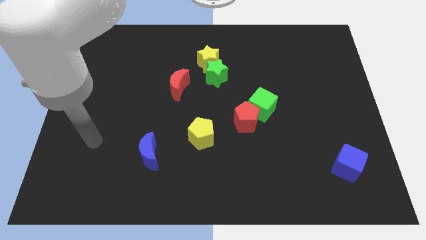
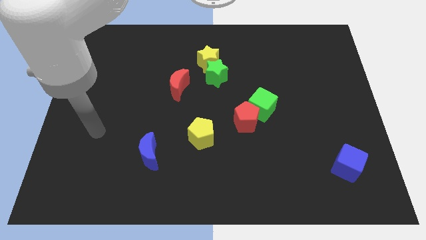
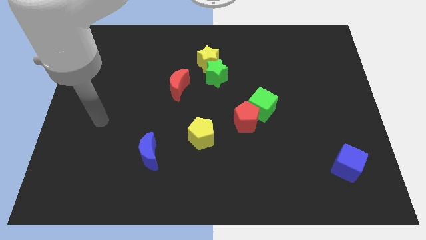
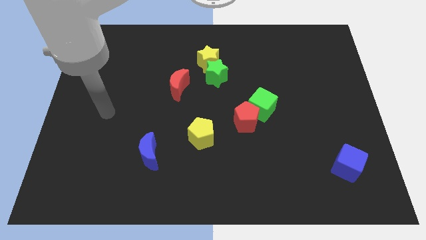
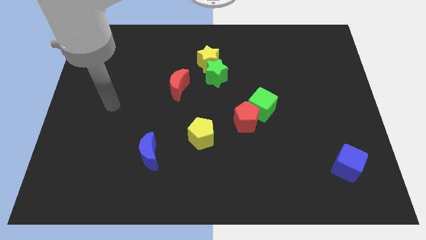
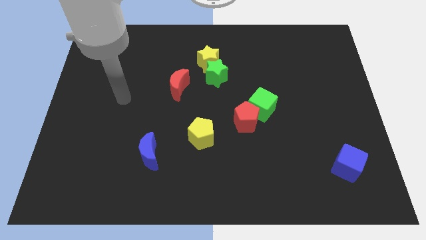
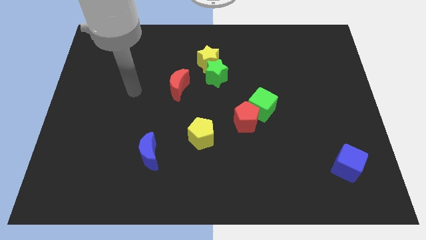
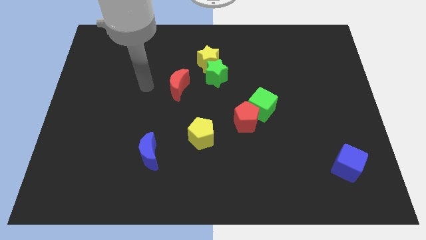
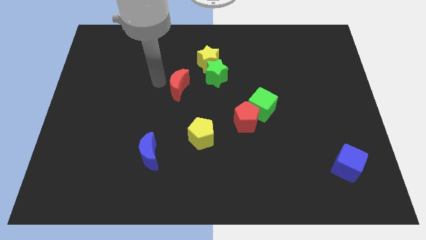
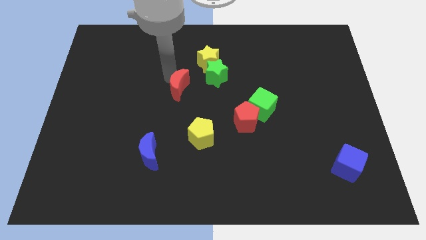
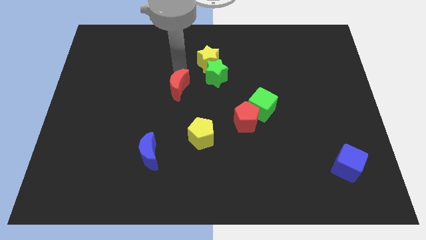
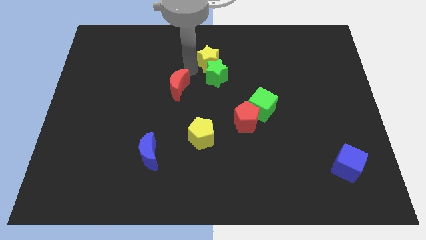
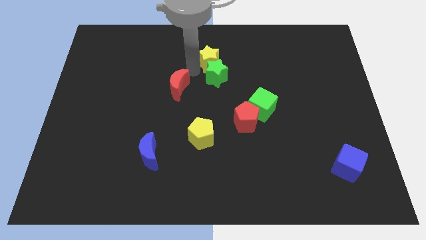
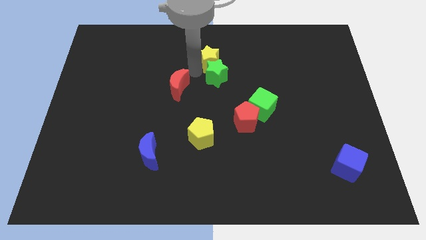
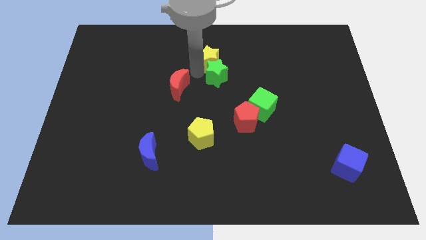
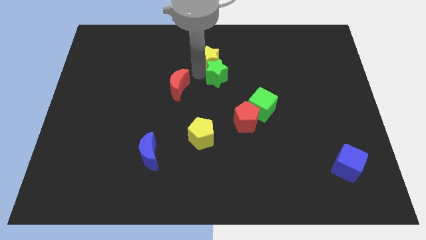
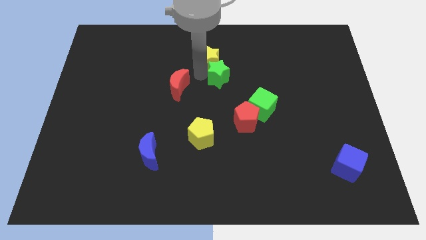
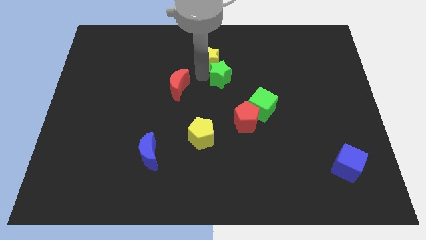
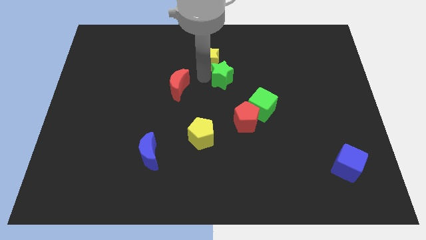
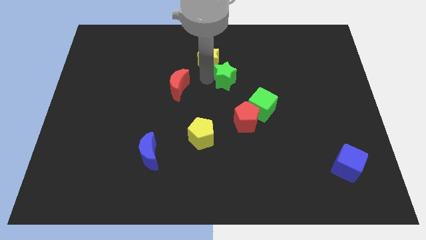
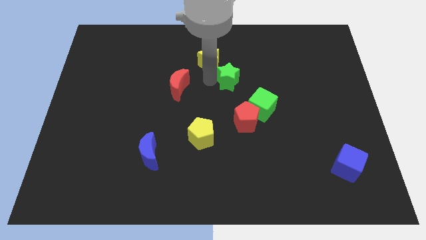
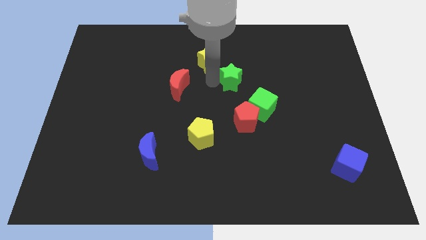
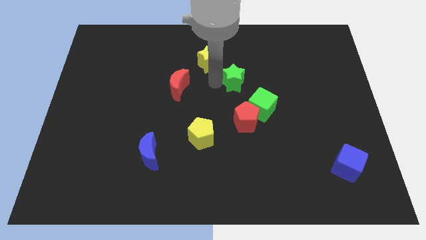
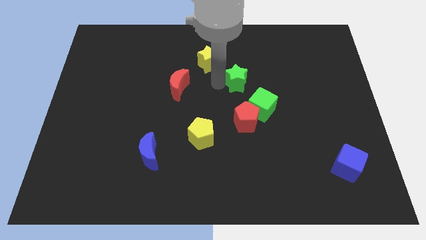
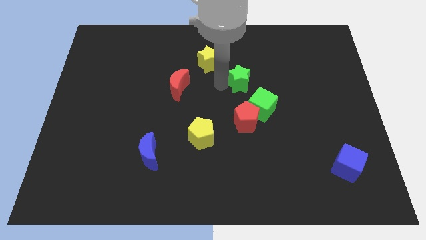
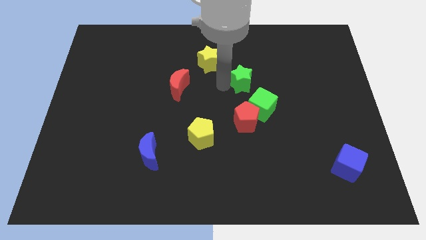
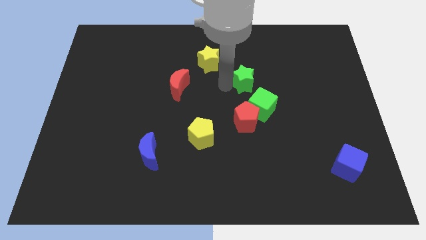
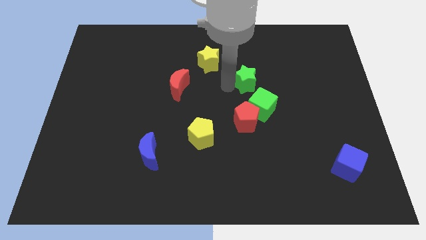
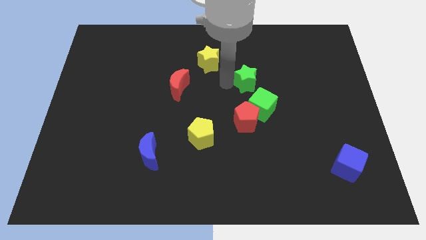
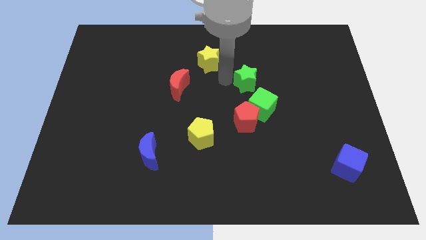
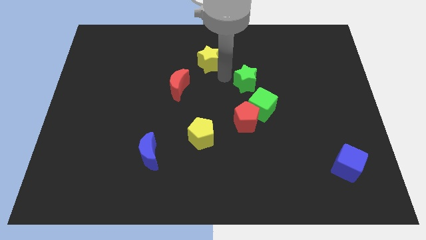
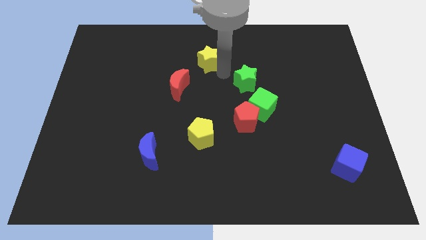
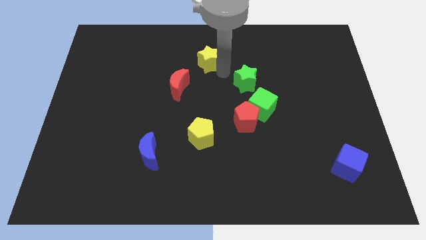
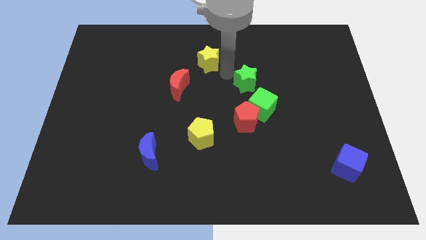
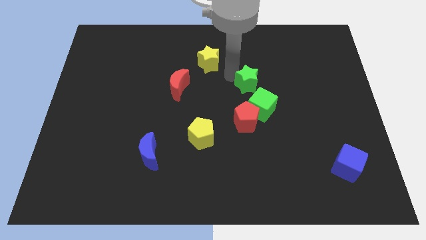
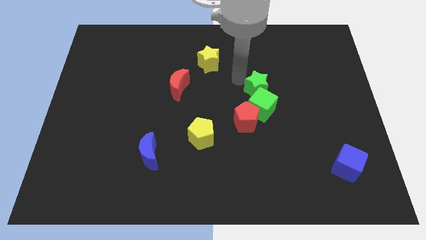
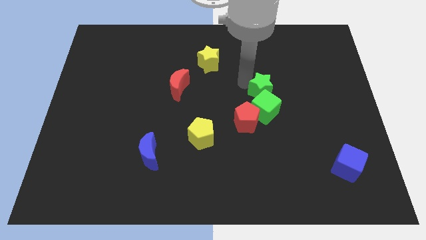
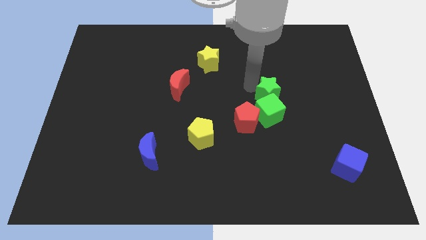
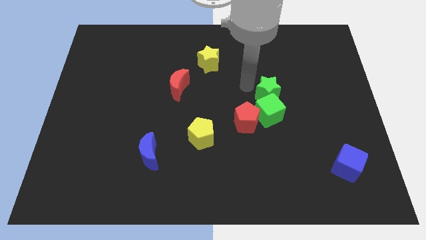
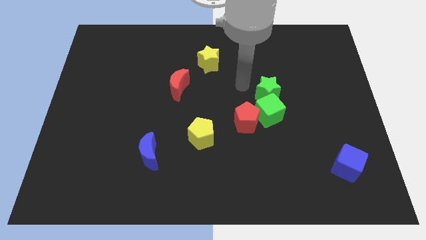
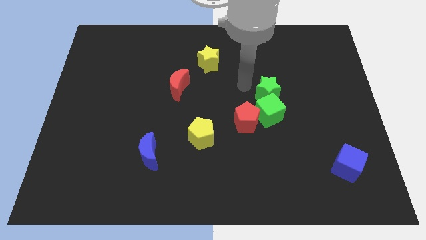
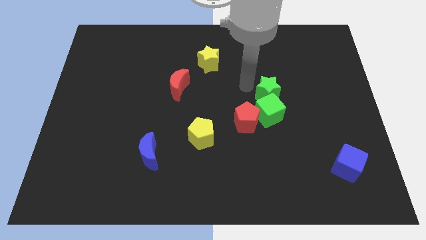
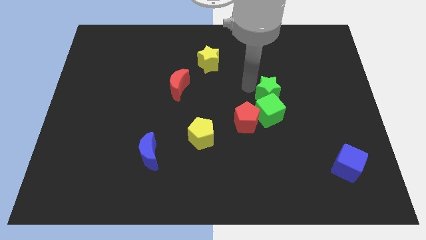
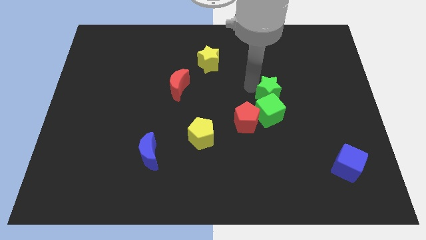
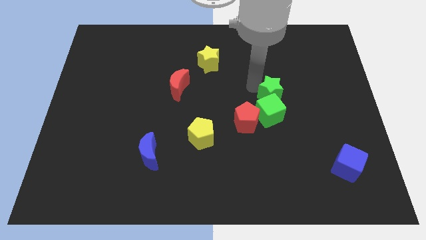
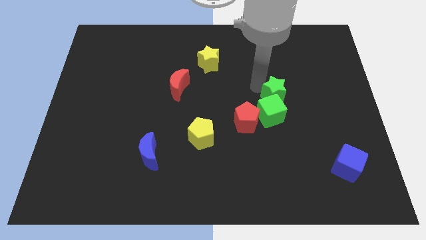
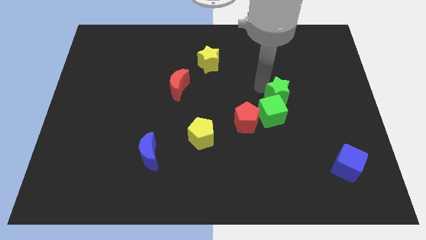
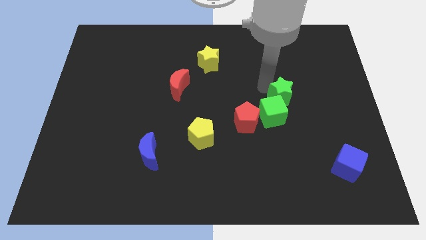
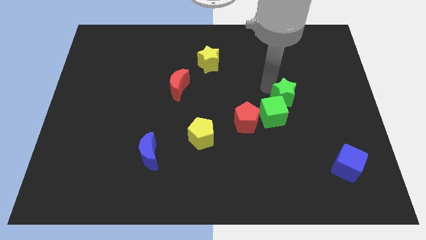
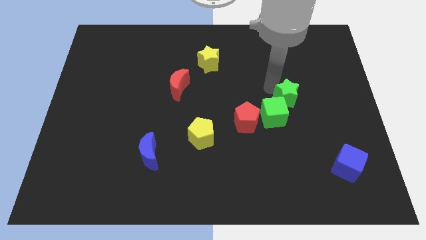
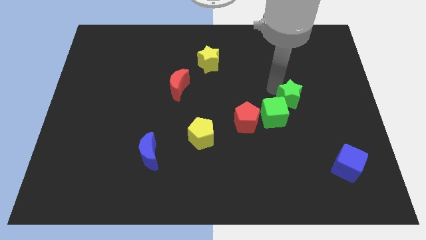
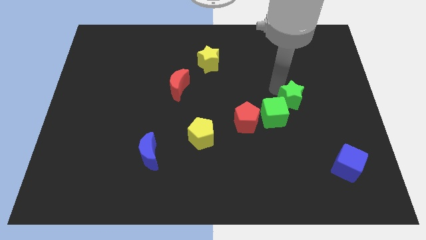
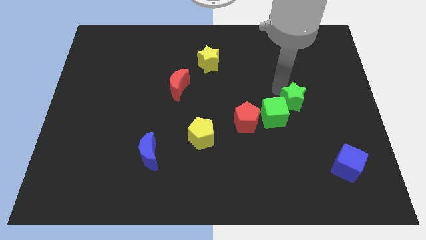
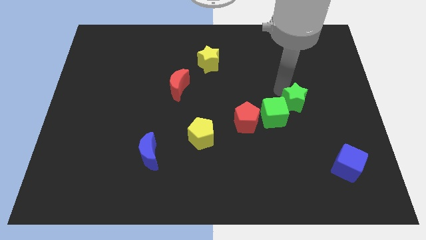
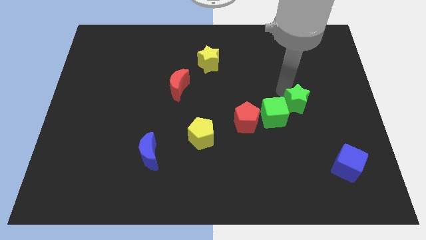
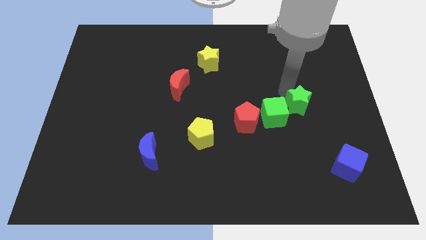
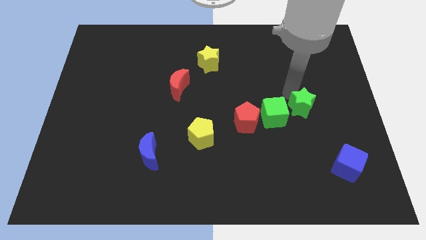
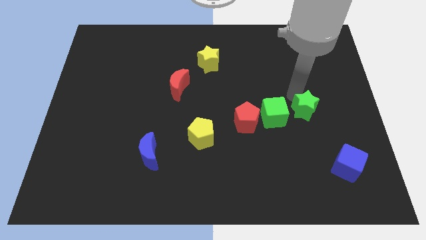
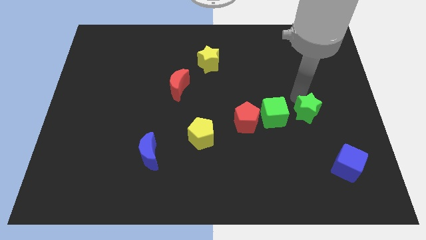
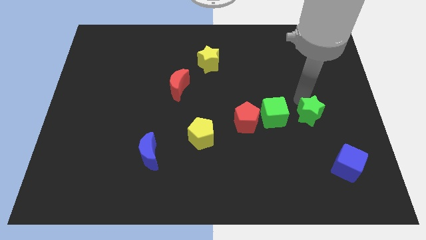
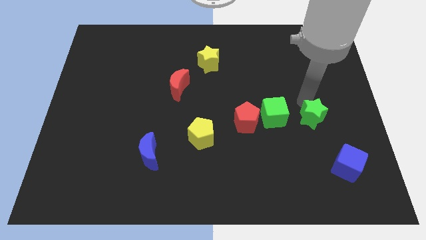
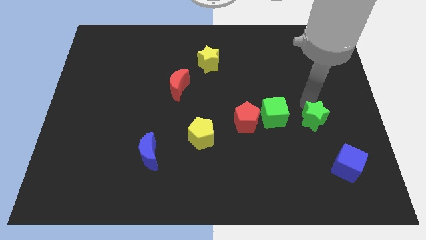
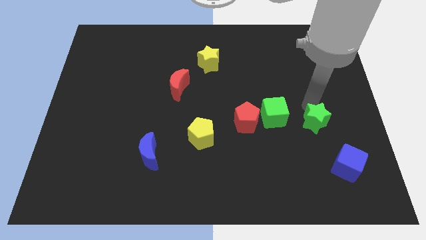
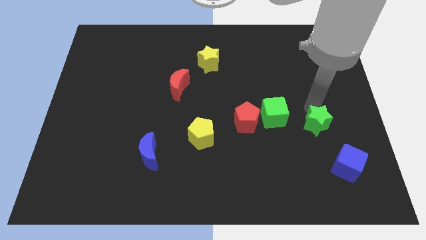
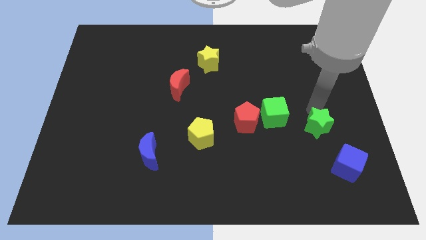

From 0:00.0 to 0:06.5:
push the green star to the top left of the blue cube

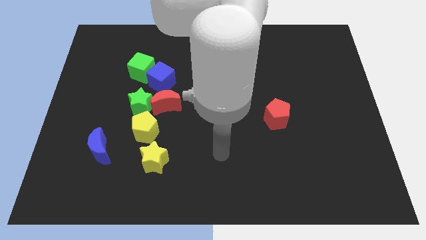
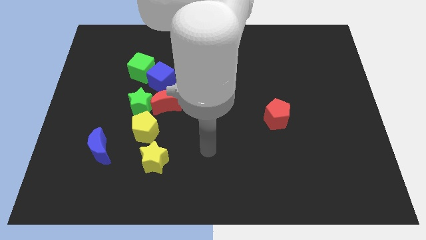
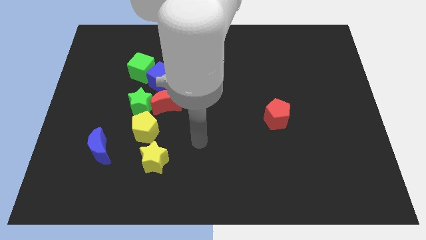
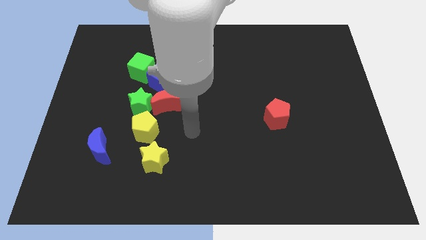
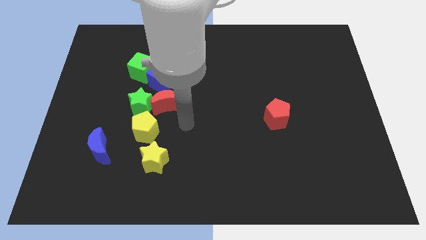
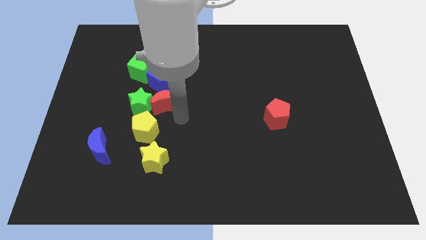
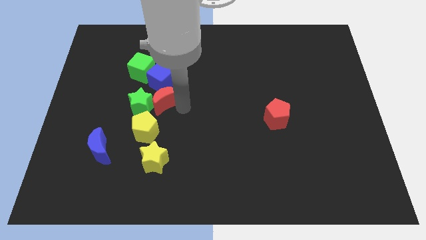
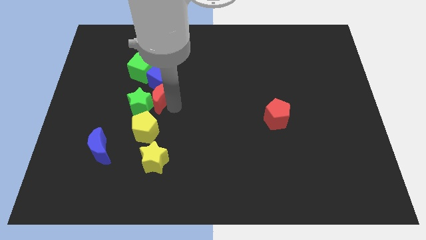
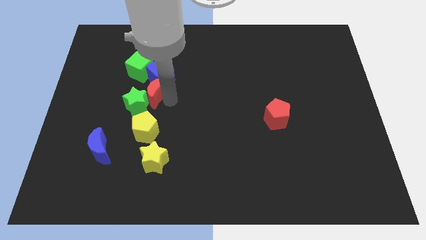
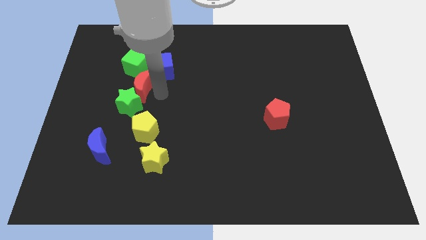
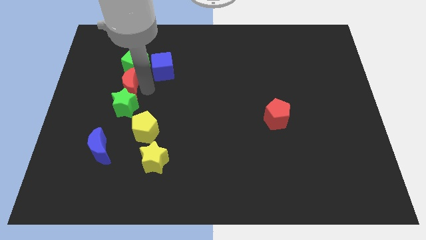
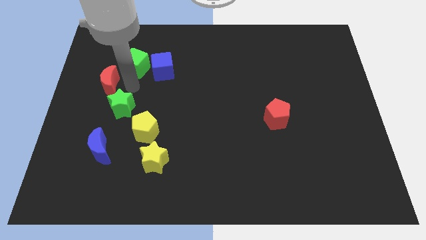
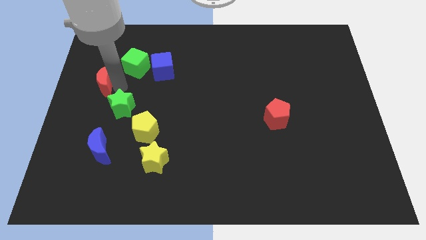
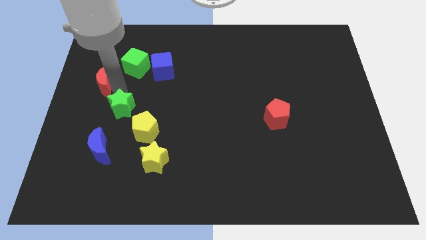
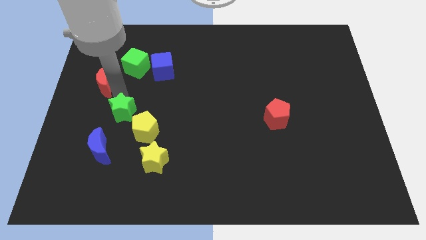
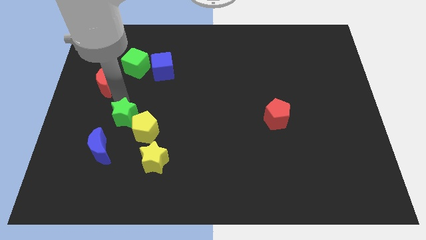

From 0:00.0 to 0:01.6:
move the green star to the top right of the blue moon
